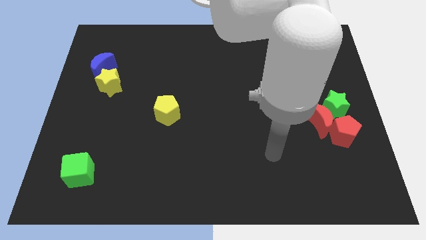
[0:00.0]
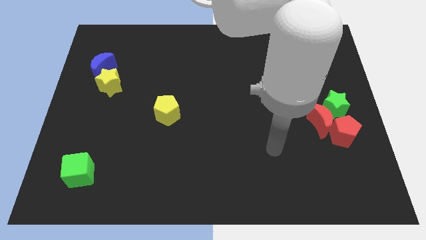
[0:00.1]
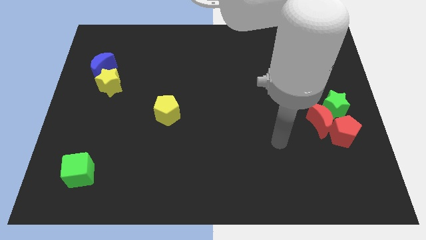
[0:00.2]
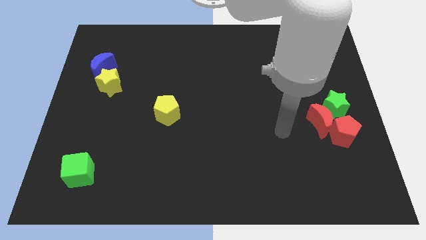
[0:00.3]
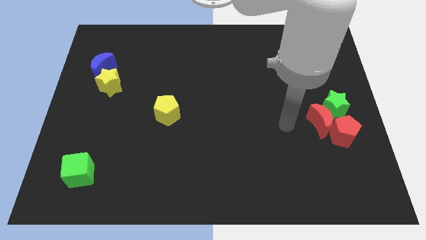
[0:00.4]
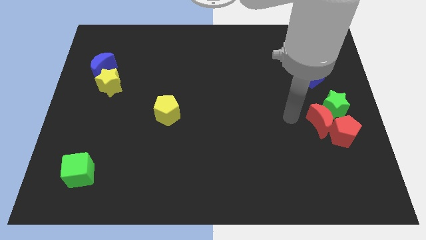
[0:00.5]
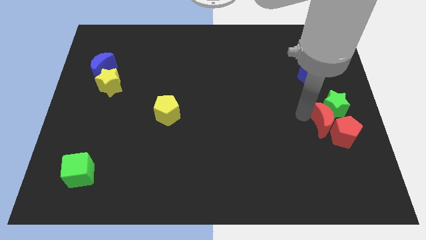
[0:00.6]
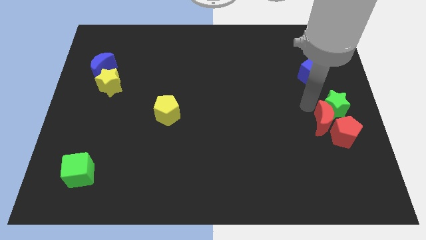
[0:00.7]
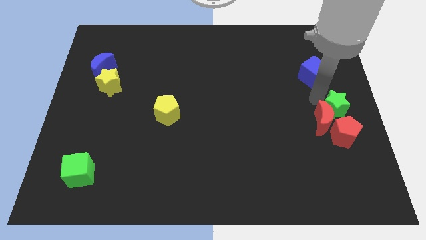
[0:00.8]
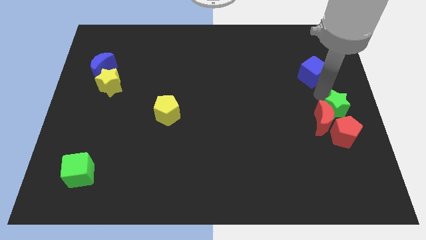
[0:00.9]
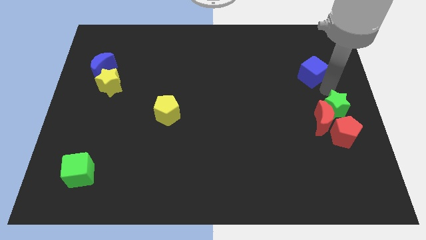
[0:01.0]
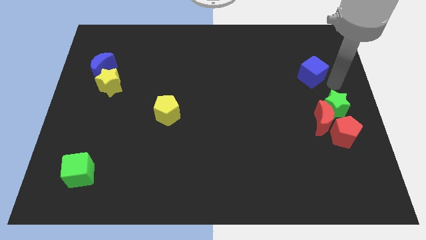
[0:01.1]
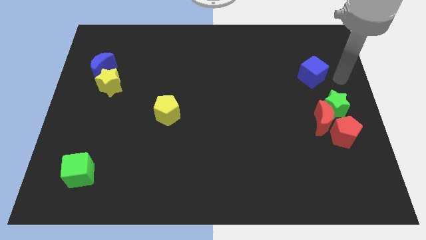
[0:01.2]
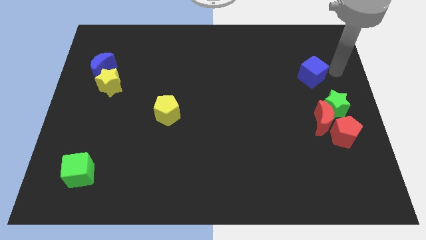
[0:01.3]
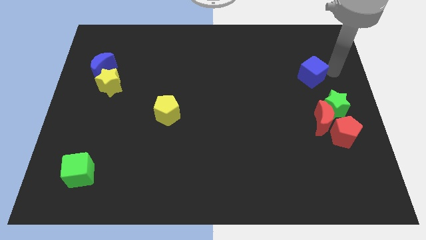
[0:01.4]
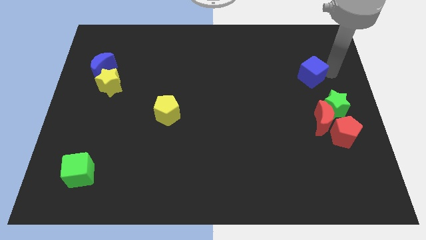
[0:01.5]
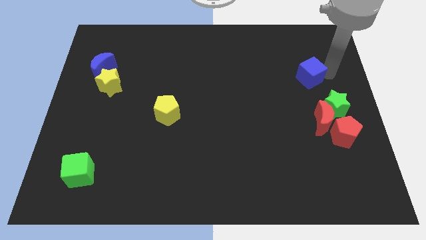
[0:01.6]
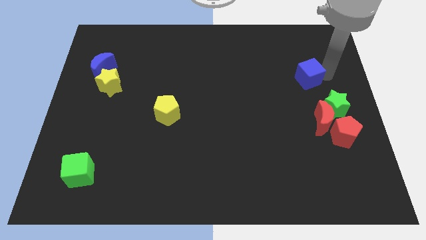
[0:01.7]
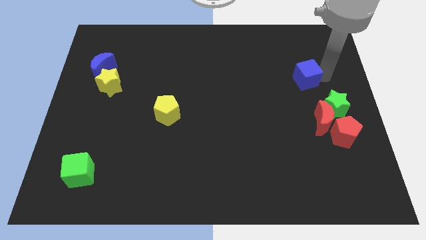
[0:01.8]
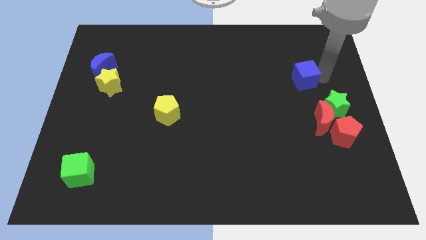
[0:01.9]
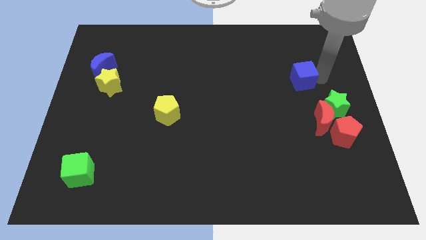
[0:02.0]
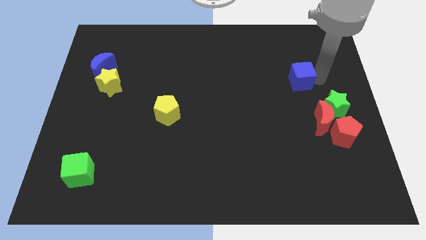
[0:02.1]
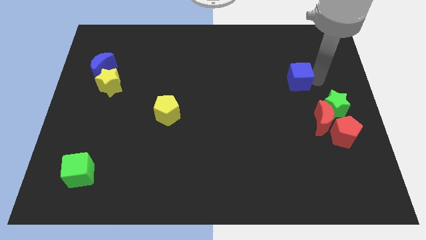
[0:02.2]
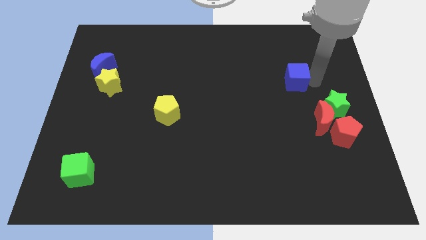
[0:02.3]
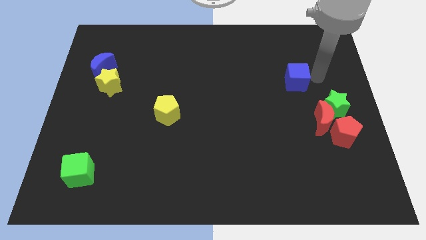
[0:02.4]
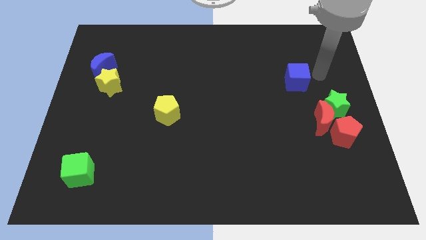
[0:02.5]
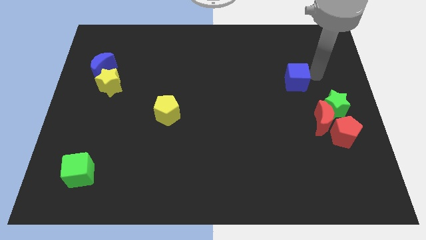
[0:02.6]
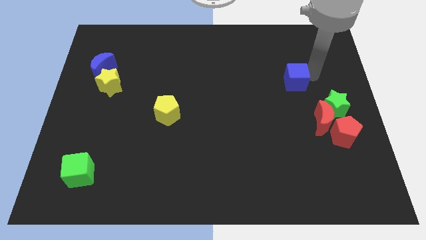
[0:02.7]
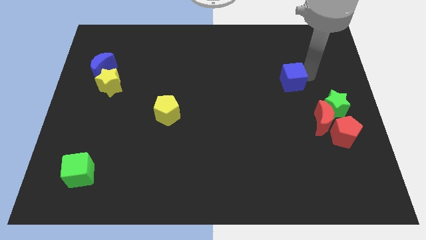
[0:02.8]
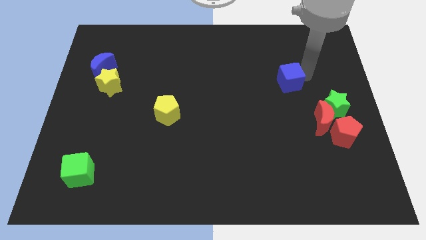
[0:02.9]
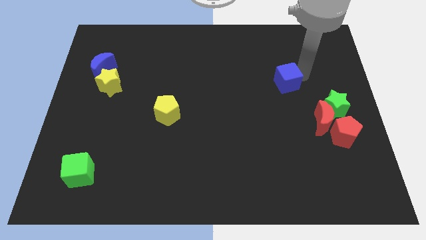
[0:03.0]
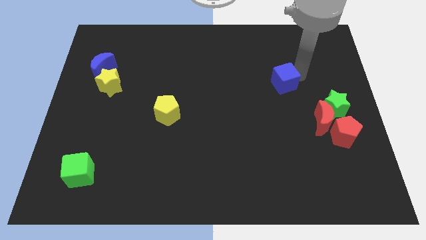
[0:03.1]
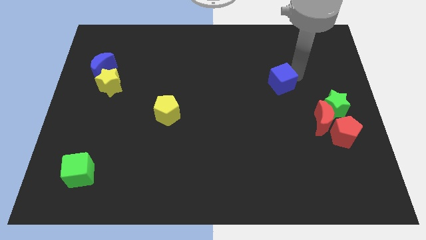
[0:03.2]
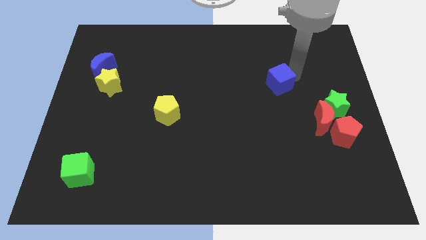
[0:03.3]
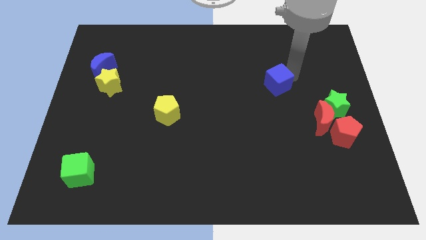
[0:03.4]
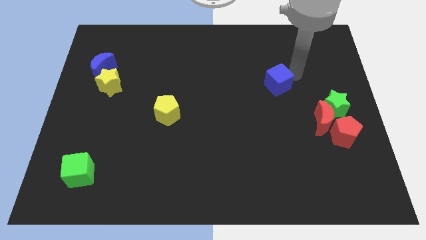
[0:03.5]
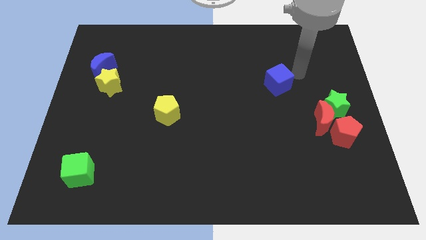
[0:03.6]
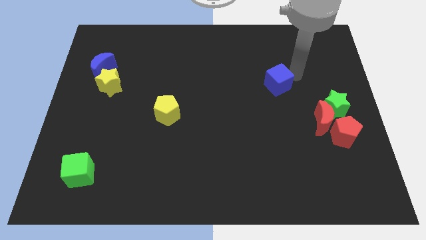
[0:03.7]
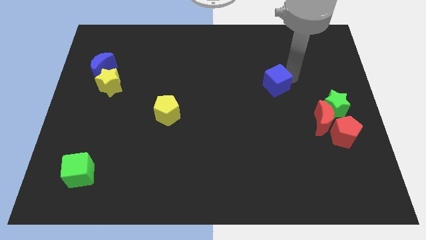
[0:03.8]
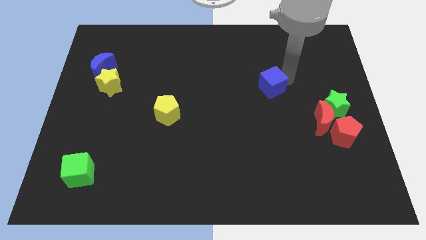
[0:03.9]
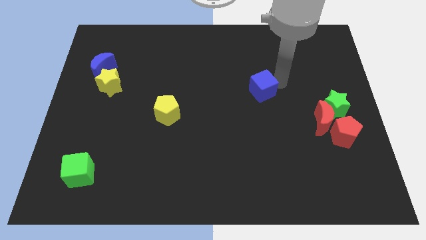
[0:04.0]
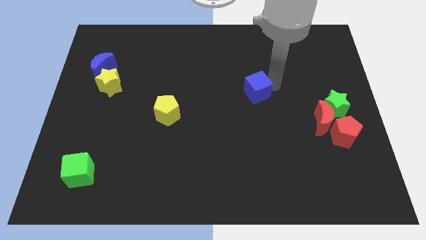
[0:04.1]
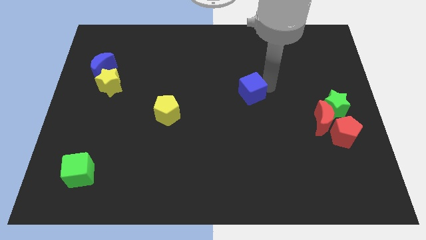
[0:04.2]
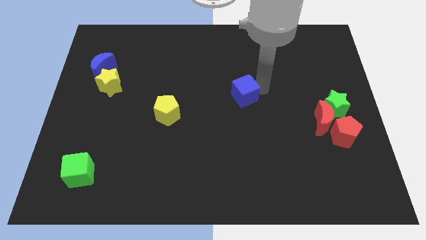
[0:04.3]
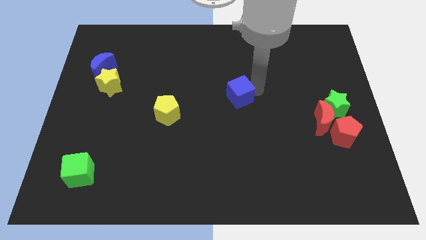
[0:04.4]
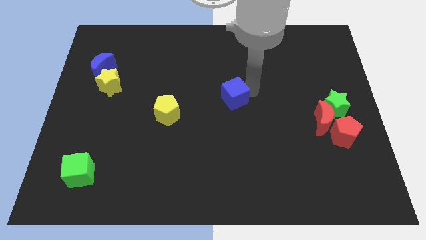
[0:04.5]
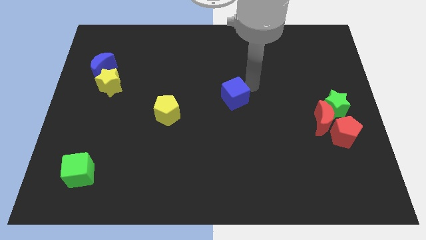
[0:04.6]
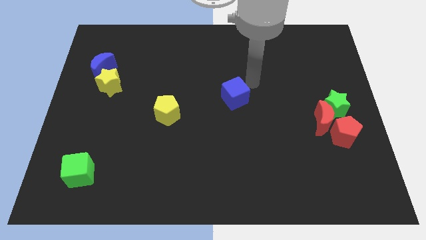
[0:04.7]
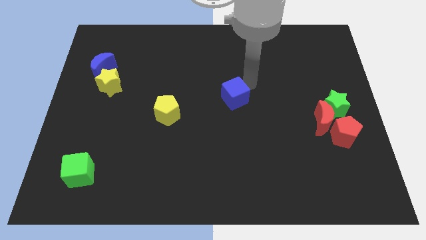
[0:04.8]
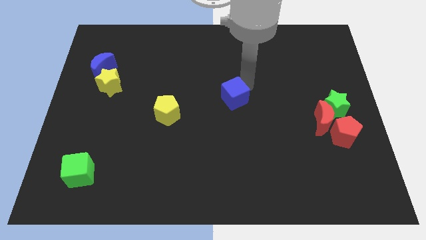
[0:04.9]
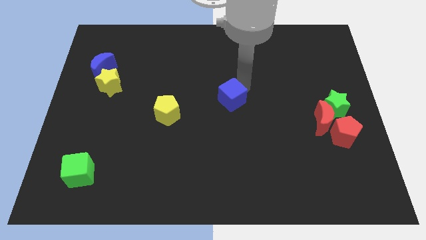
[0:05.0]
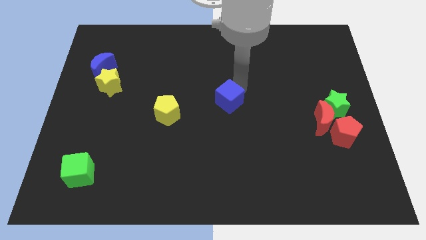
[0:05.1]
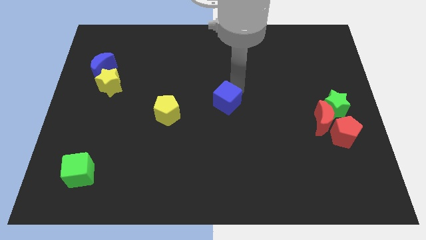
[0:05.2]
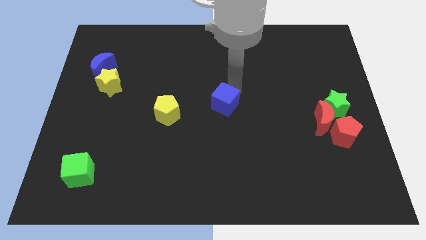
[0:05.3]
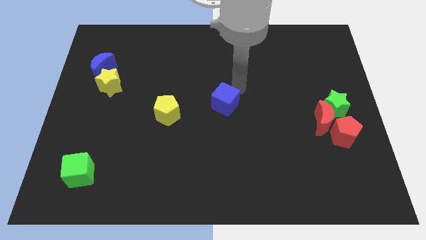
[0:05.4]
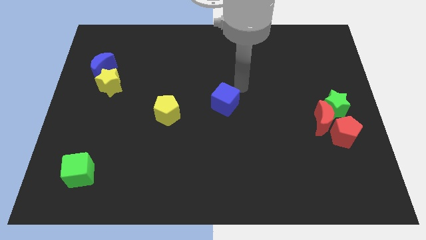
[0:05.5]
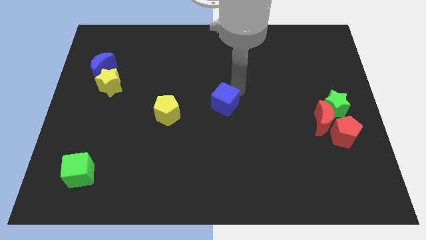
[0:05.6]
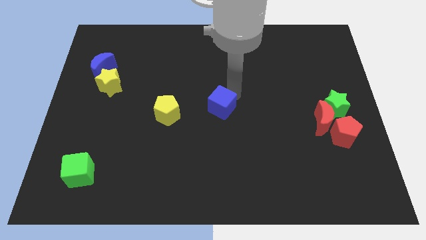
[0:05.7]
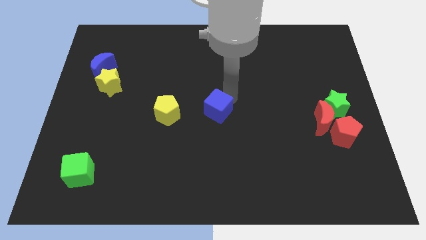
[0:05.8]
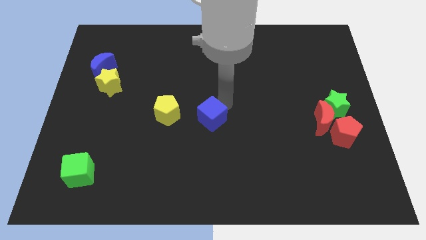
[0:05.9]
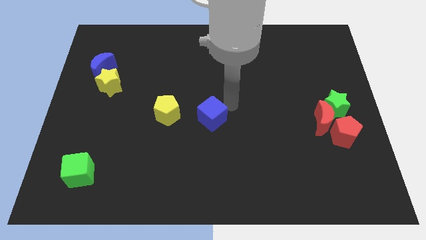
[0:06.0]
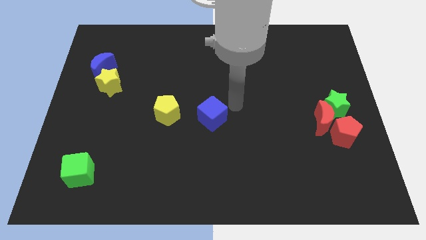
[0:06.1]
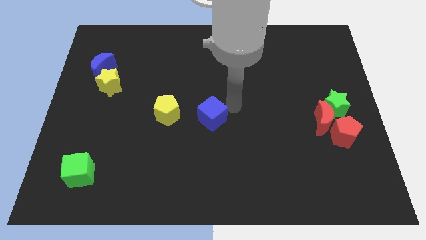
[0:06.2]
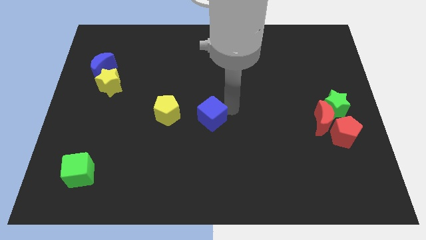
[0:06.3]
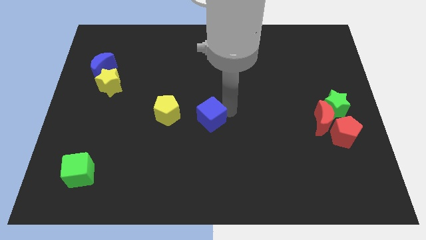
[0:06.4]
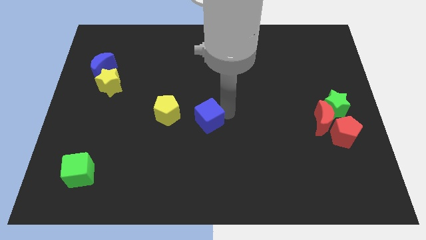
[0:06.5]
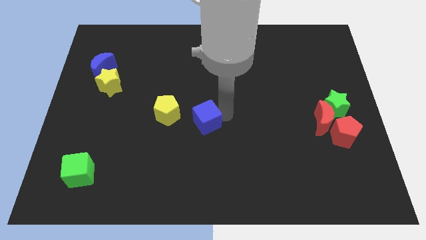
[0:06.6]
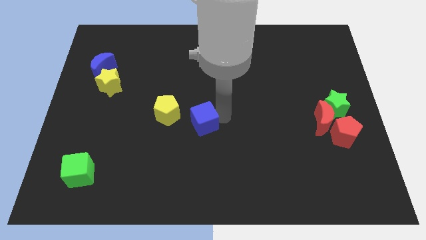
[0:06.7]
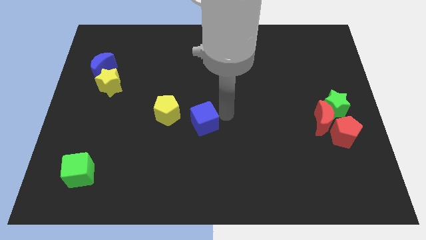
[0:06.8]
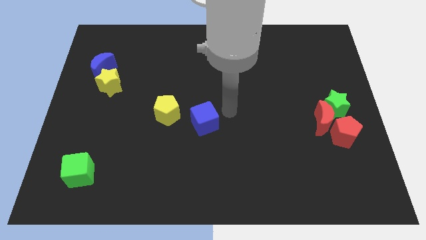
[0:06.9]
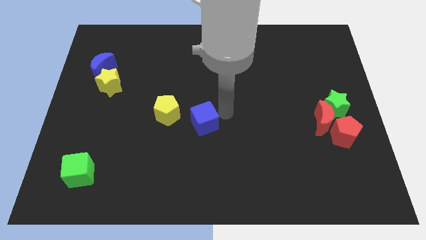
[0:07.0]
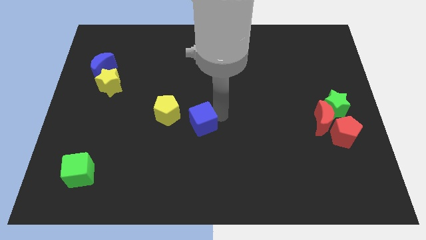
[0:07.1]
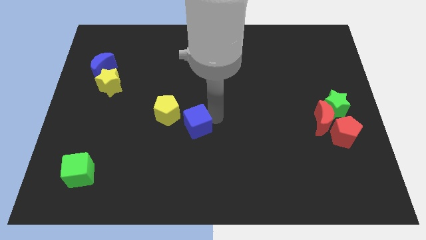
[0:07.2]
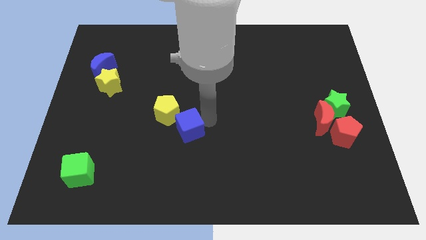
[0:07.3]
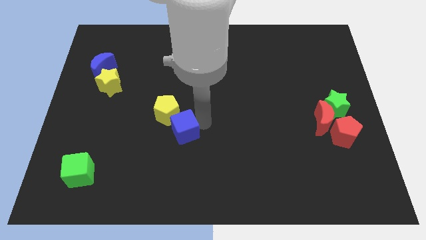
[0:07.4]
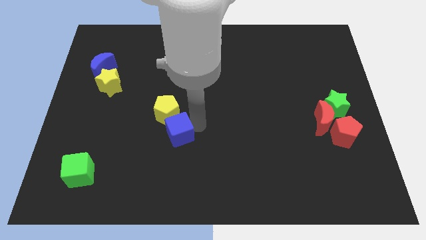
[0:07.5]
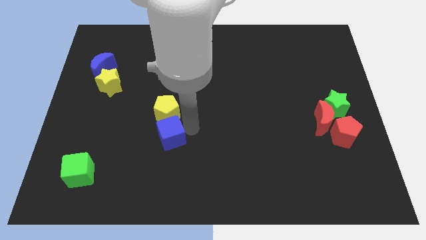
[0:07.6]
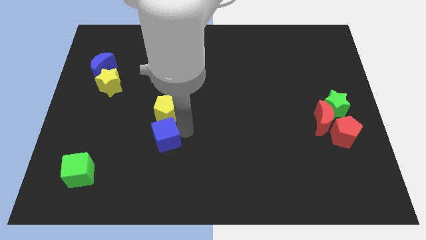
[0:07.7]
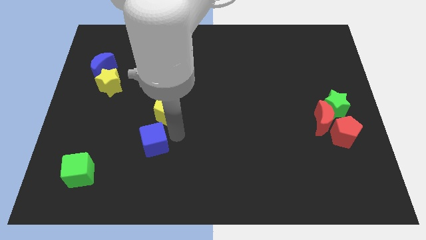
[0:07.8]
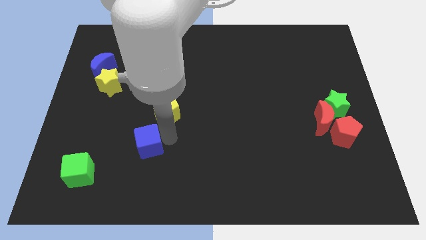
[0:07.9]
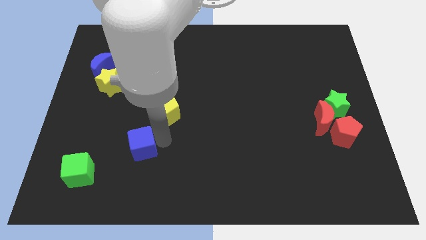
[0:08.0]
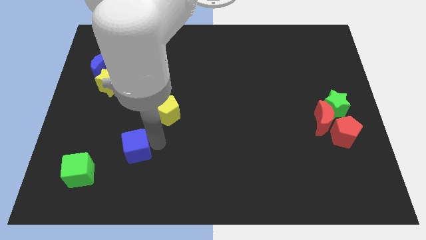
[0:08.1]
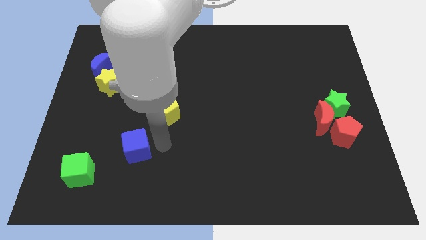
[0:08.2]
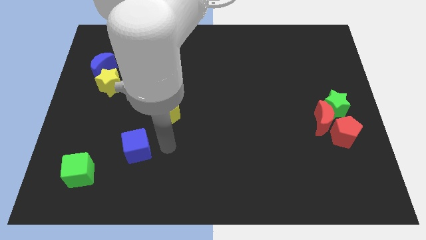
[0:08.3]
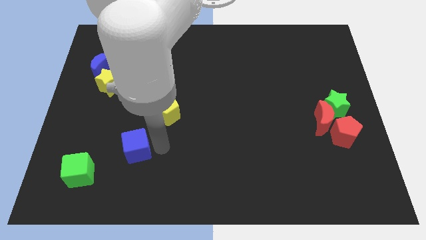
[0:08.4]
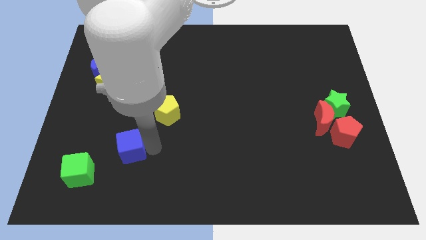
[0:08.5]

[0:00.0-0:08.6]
slide the blue cube to the top right of the green cube
